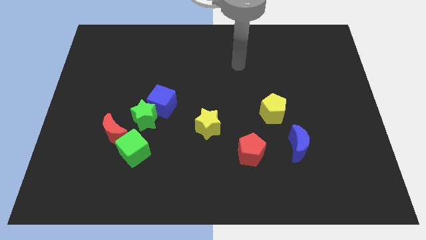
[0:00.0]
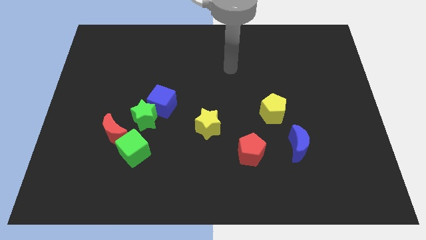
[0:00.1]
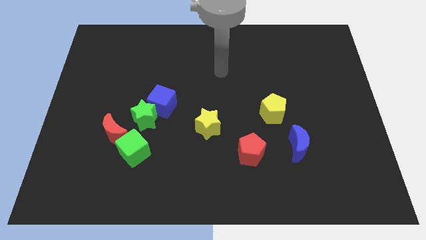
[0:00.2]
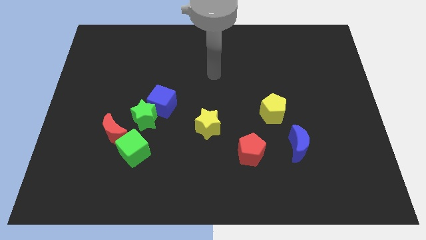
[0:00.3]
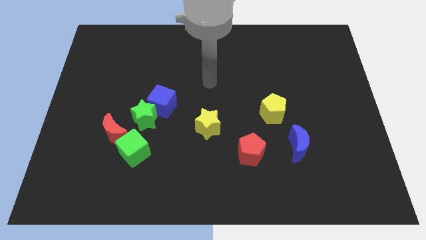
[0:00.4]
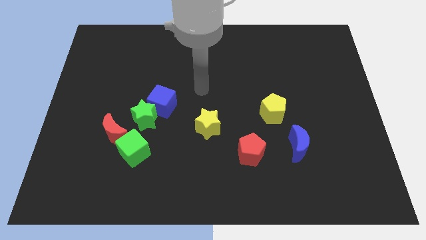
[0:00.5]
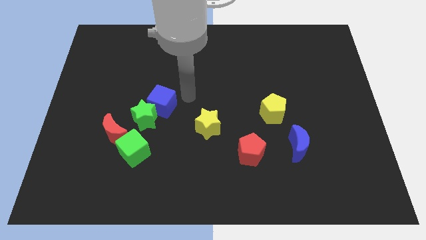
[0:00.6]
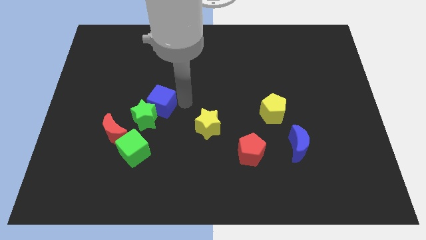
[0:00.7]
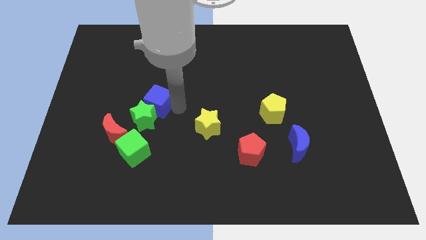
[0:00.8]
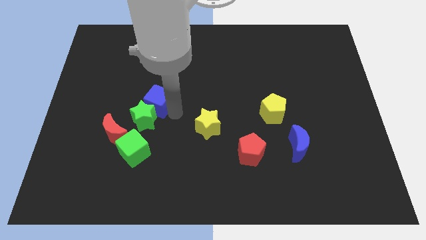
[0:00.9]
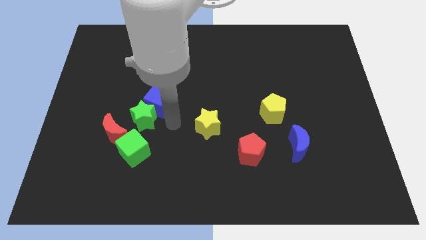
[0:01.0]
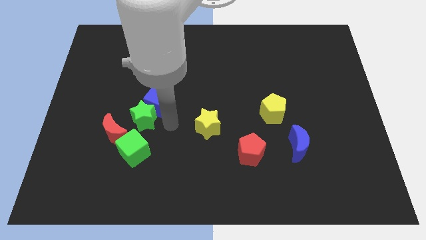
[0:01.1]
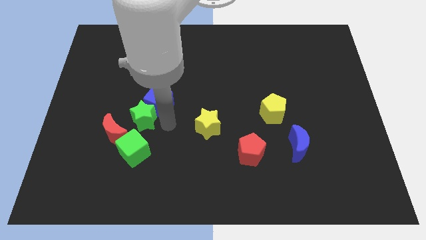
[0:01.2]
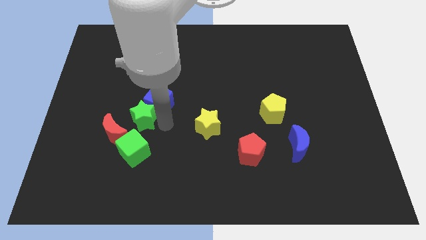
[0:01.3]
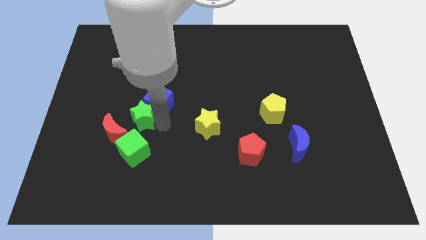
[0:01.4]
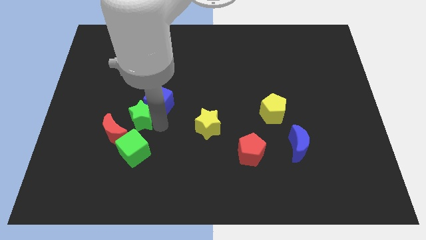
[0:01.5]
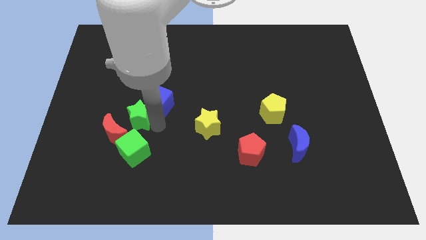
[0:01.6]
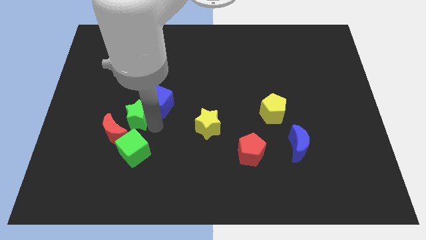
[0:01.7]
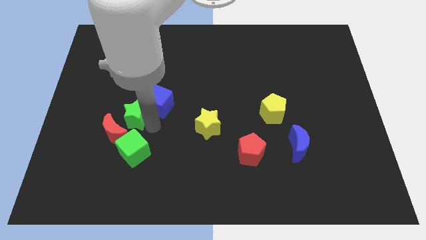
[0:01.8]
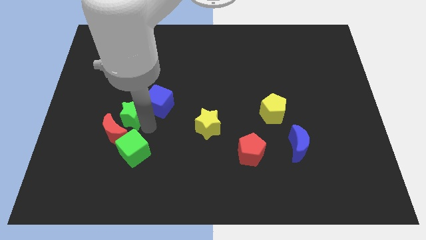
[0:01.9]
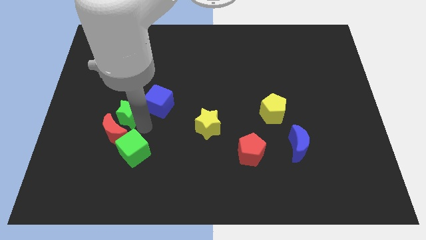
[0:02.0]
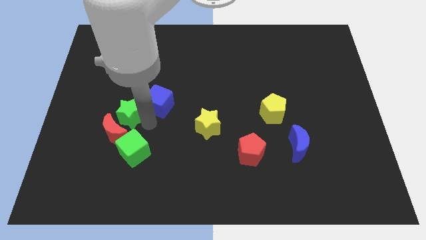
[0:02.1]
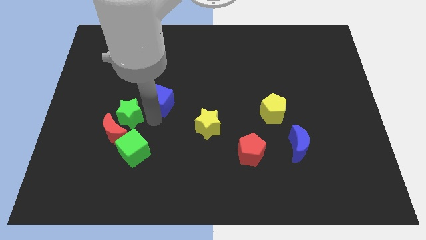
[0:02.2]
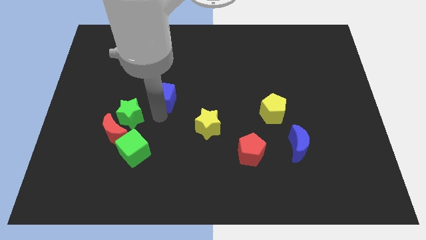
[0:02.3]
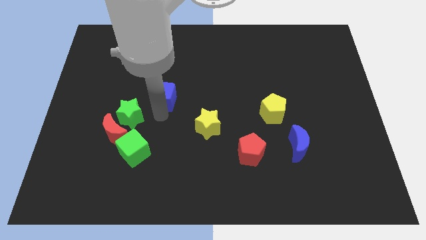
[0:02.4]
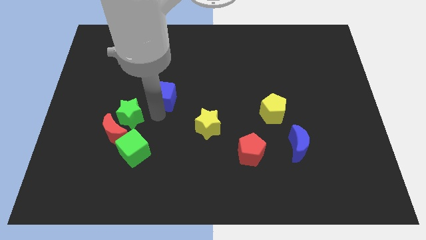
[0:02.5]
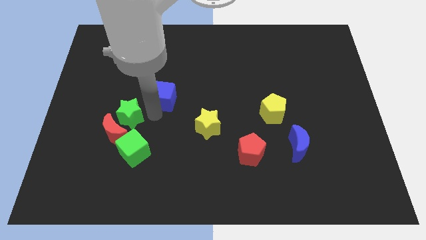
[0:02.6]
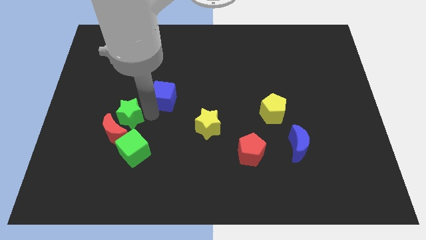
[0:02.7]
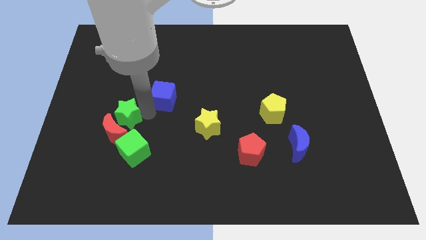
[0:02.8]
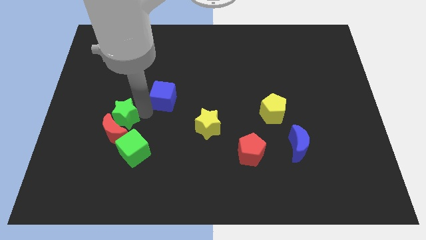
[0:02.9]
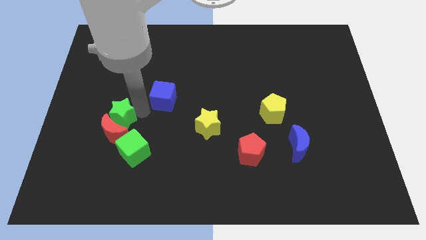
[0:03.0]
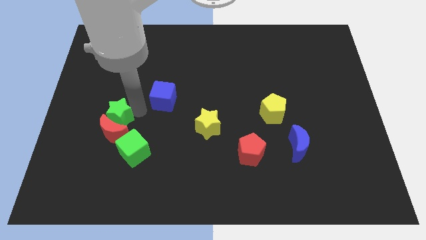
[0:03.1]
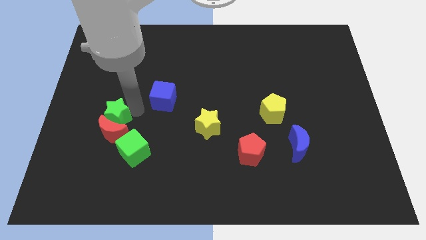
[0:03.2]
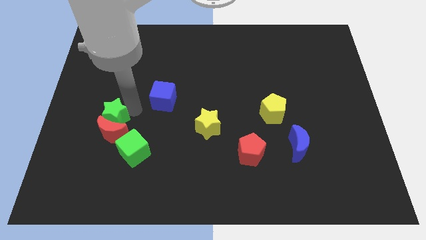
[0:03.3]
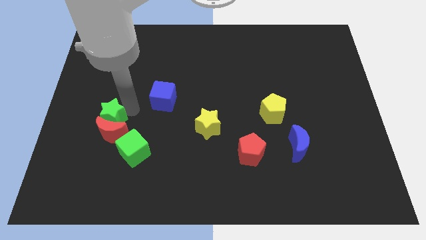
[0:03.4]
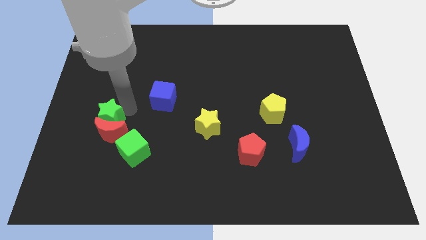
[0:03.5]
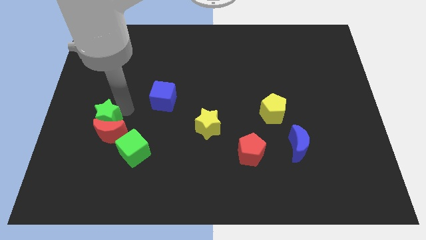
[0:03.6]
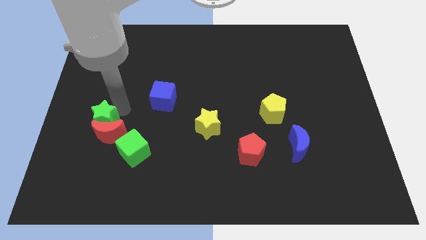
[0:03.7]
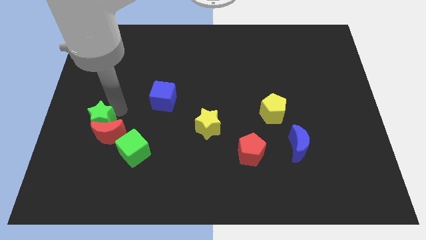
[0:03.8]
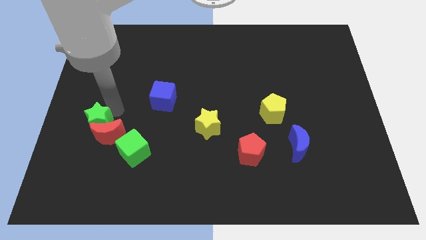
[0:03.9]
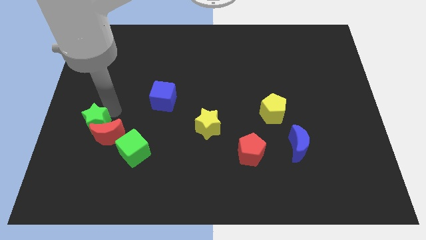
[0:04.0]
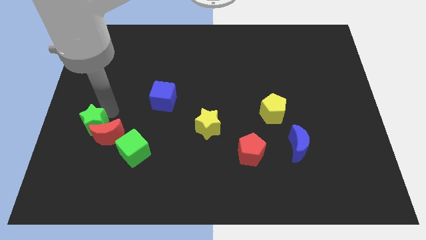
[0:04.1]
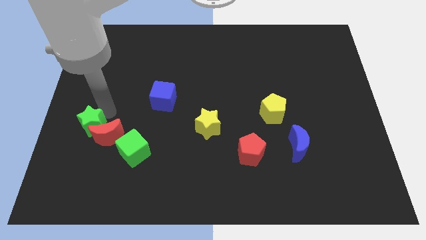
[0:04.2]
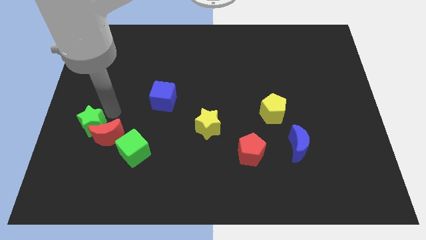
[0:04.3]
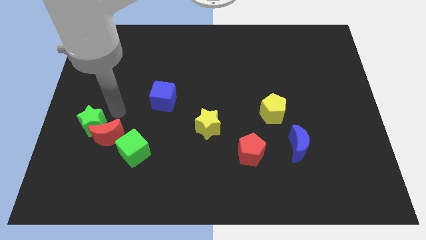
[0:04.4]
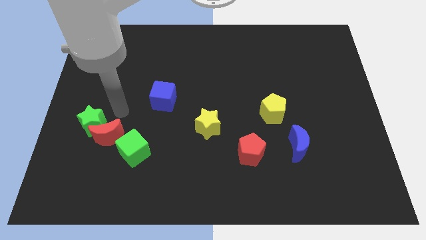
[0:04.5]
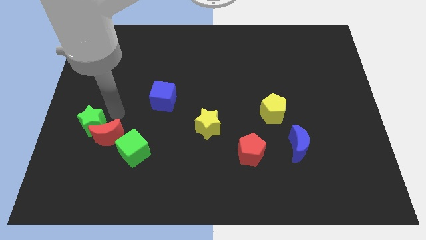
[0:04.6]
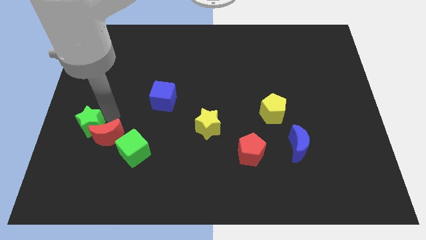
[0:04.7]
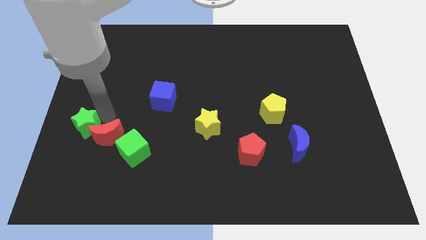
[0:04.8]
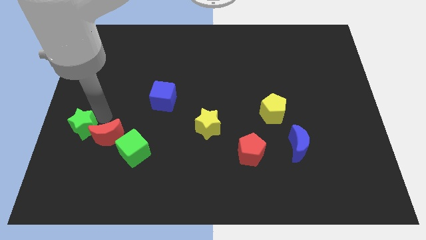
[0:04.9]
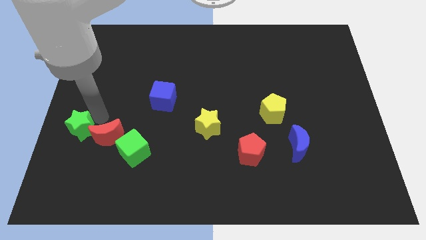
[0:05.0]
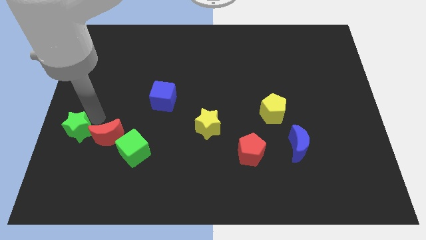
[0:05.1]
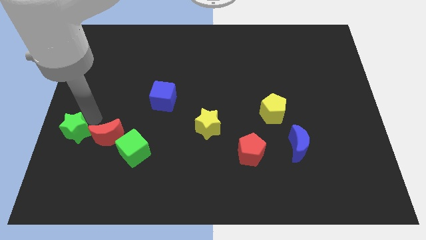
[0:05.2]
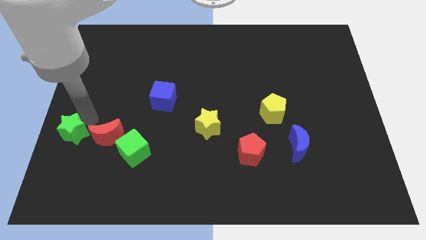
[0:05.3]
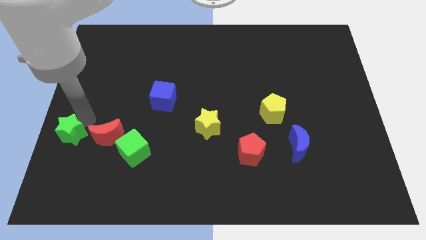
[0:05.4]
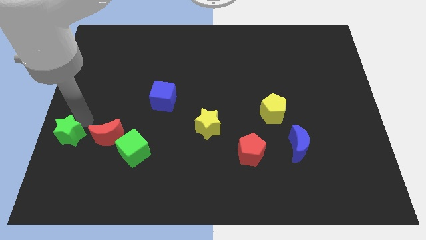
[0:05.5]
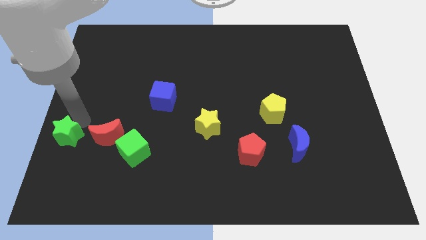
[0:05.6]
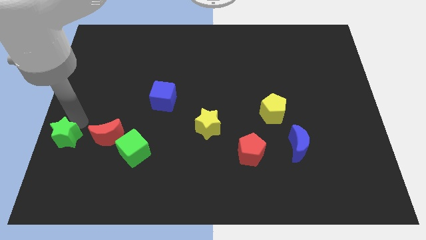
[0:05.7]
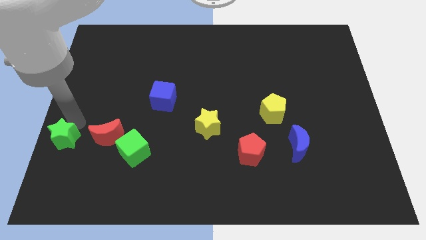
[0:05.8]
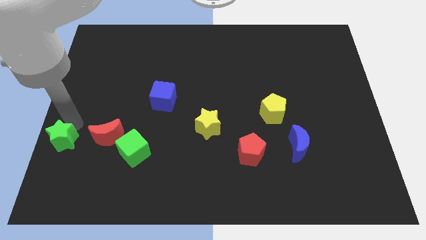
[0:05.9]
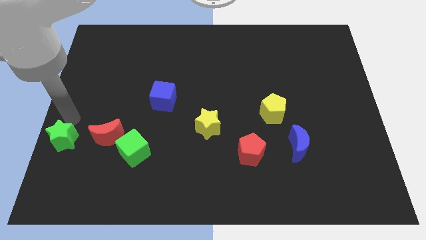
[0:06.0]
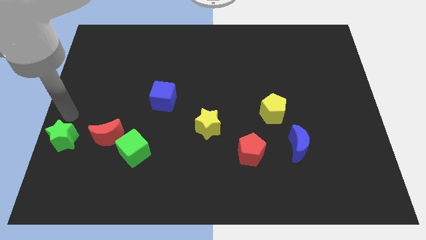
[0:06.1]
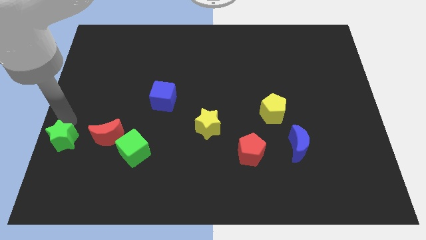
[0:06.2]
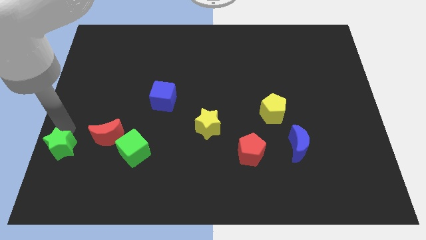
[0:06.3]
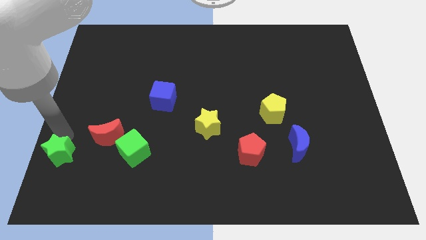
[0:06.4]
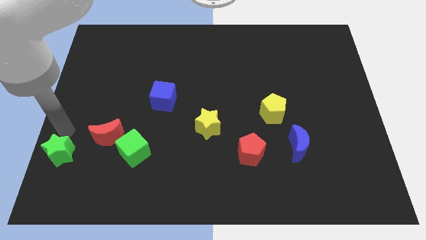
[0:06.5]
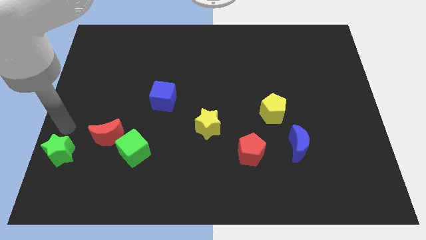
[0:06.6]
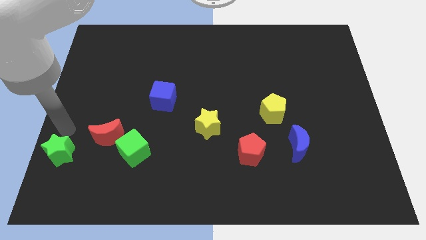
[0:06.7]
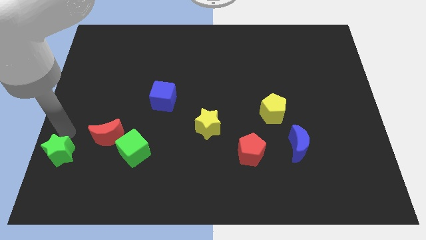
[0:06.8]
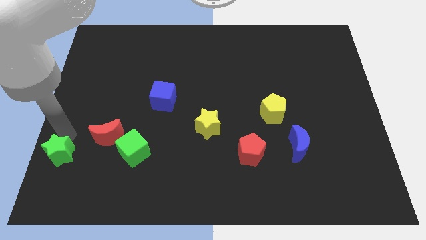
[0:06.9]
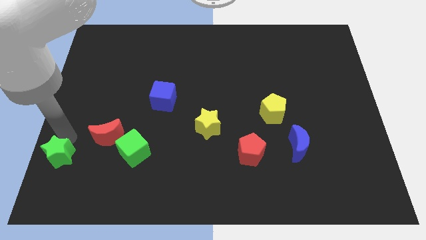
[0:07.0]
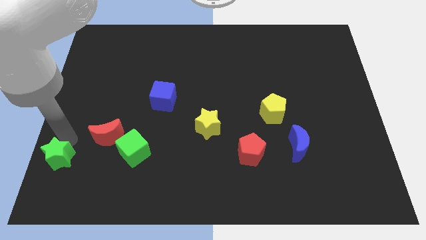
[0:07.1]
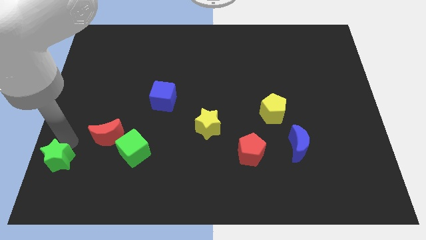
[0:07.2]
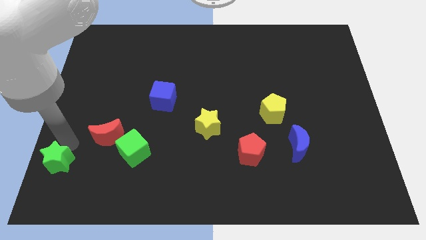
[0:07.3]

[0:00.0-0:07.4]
move the green star to the bottom left of the board
